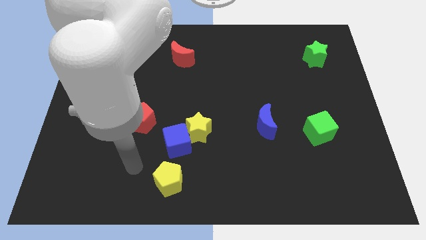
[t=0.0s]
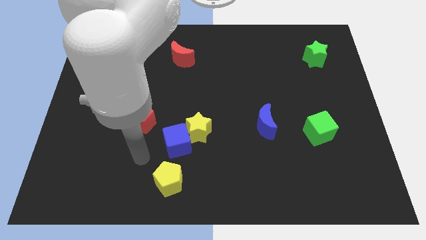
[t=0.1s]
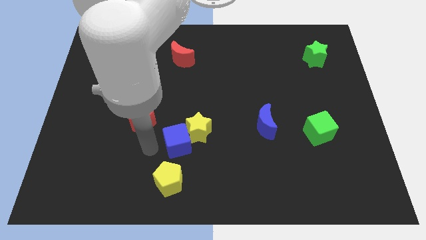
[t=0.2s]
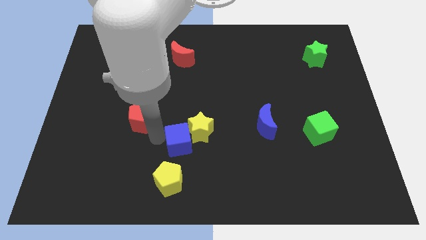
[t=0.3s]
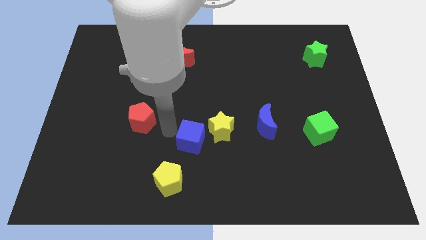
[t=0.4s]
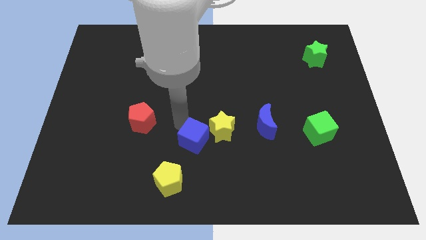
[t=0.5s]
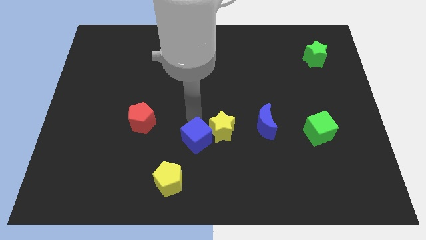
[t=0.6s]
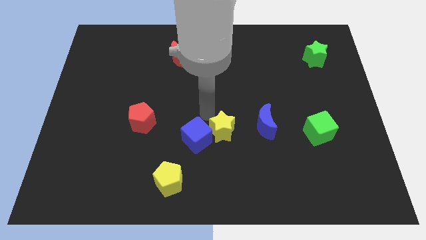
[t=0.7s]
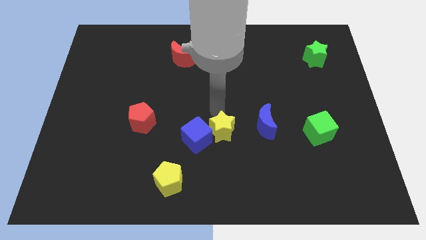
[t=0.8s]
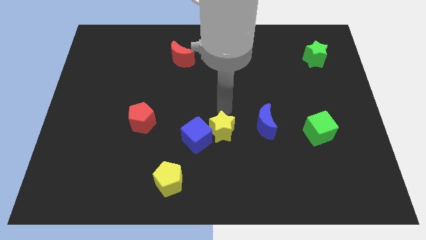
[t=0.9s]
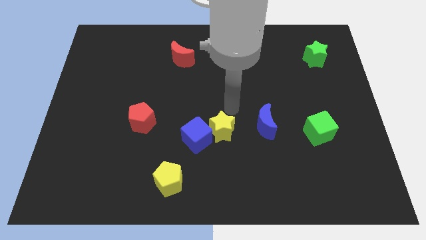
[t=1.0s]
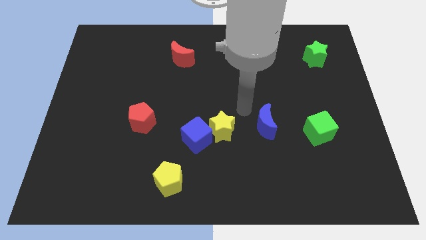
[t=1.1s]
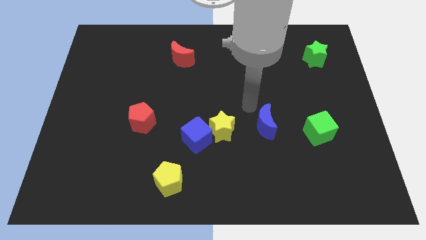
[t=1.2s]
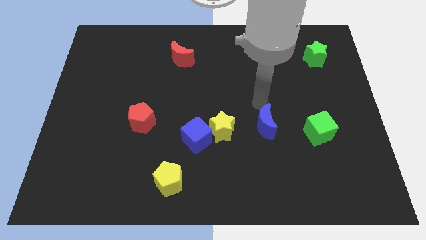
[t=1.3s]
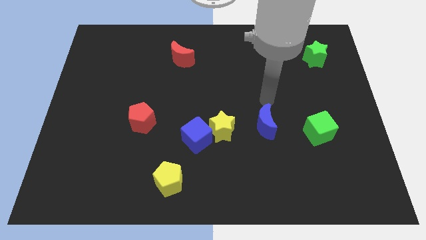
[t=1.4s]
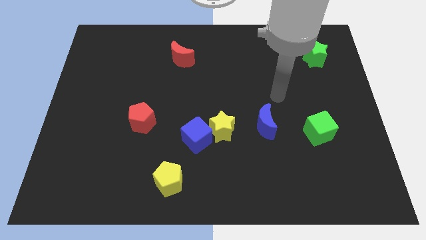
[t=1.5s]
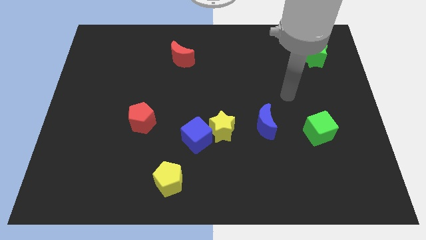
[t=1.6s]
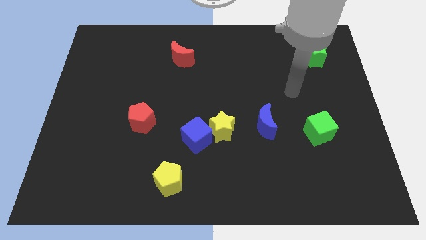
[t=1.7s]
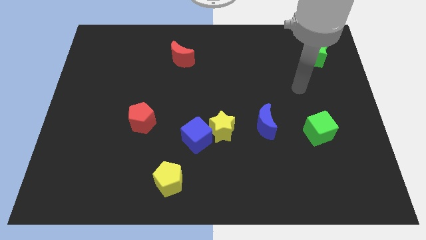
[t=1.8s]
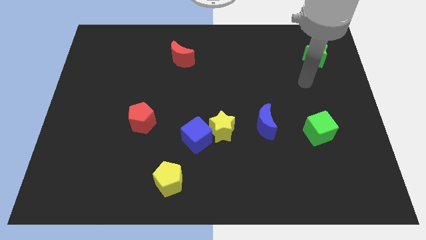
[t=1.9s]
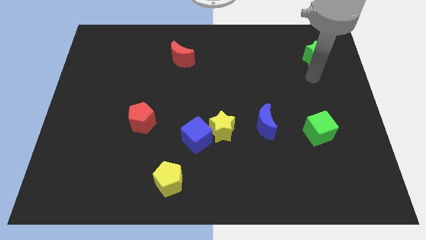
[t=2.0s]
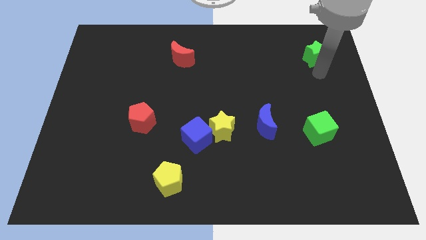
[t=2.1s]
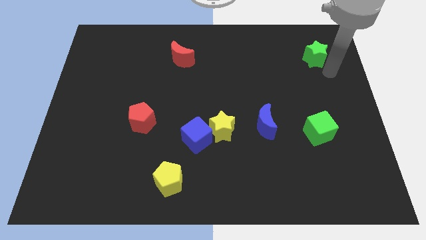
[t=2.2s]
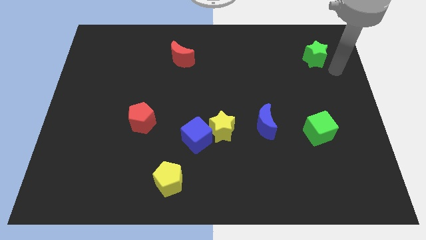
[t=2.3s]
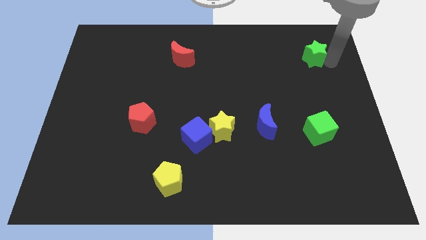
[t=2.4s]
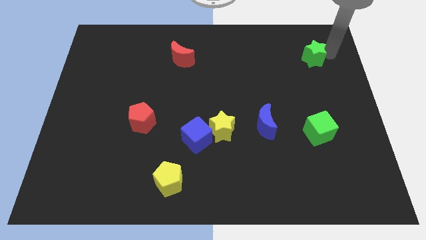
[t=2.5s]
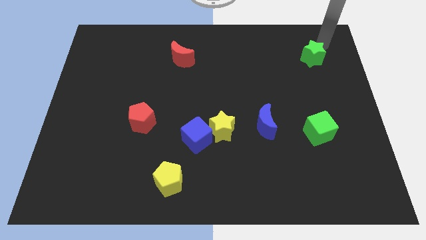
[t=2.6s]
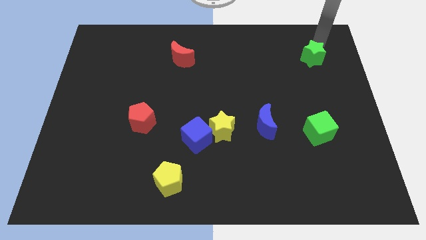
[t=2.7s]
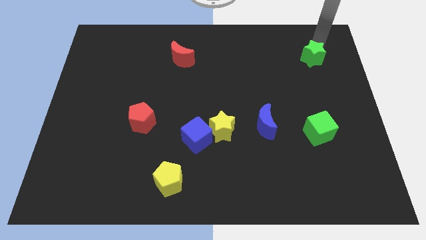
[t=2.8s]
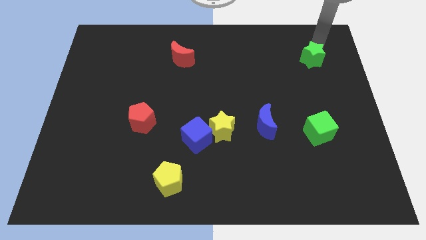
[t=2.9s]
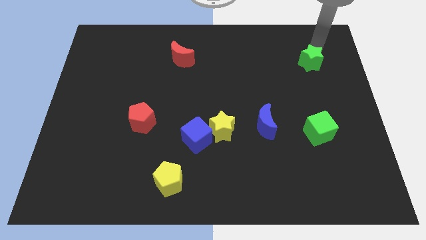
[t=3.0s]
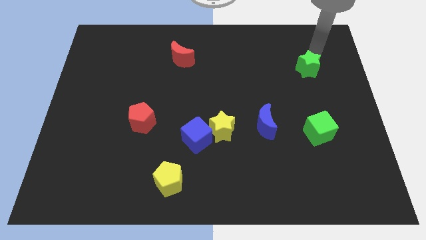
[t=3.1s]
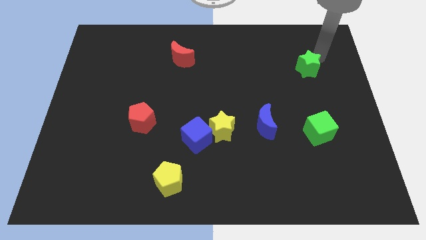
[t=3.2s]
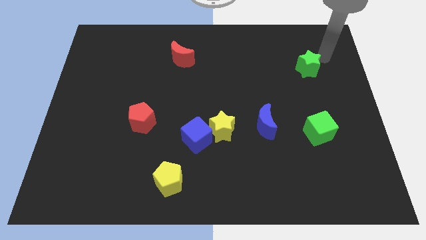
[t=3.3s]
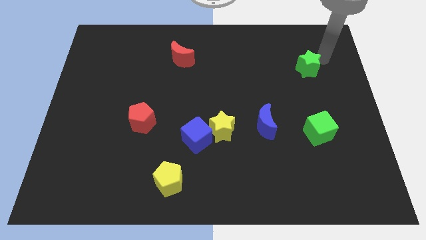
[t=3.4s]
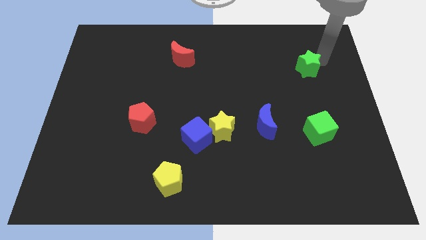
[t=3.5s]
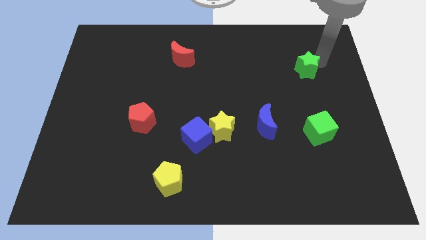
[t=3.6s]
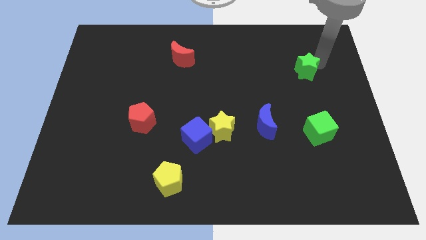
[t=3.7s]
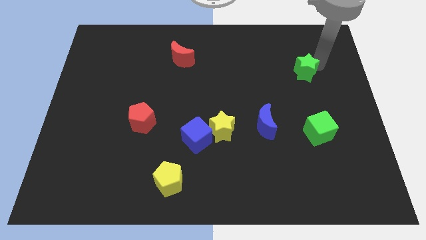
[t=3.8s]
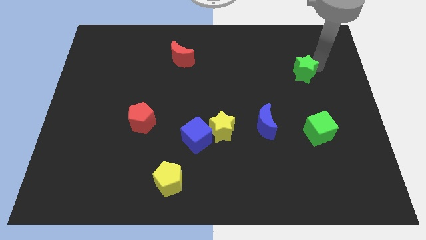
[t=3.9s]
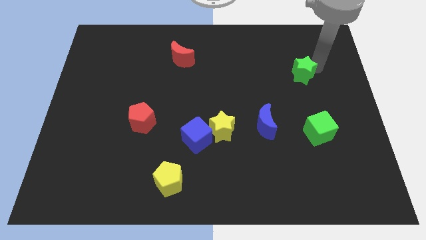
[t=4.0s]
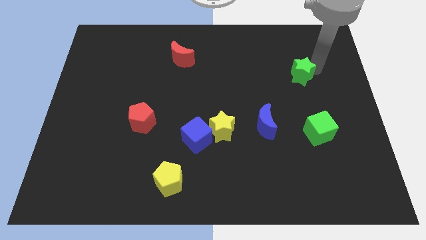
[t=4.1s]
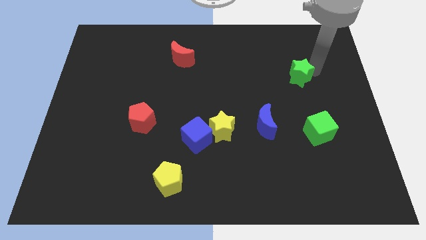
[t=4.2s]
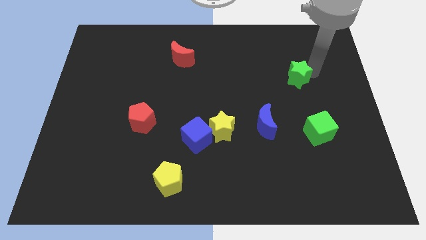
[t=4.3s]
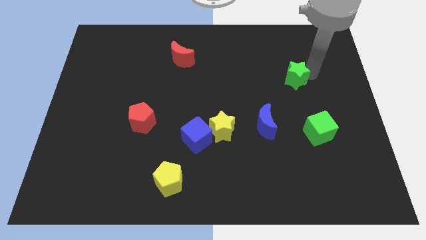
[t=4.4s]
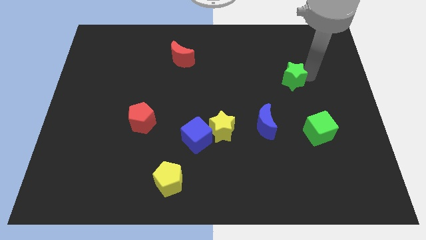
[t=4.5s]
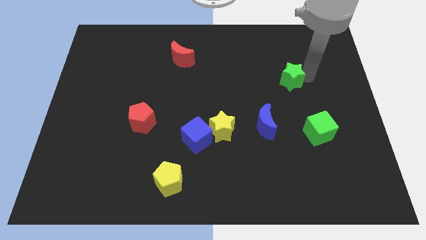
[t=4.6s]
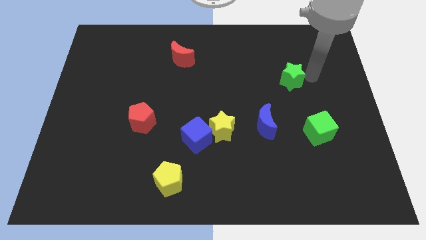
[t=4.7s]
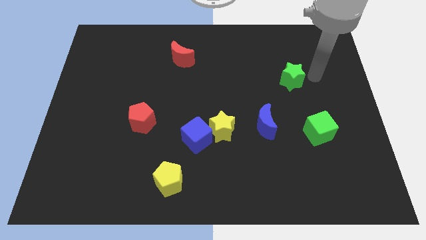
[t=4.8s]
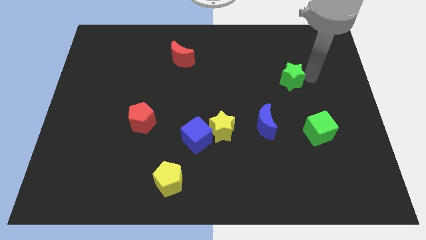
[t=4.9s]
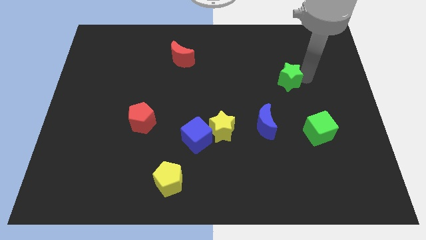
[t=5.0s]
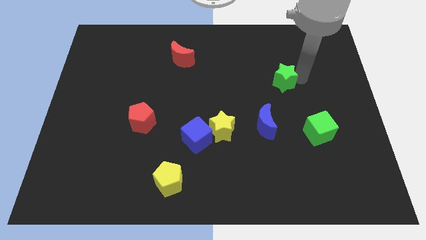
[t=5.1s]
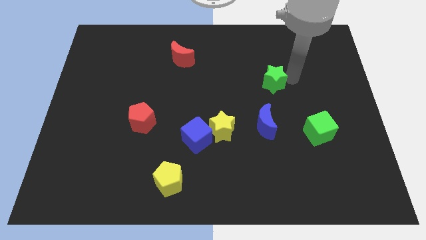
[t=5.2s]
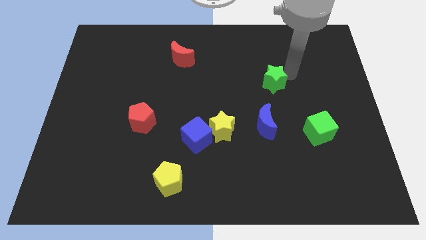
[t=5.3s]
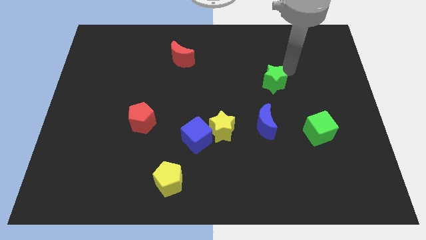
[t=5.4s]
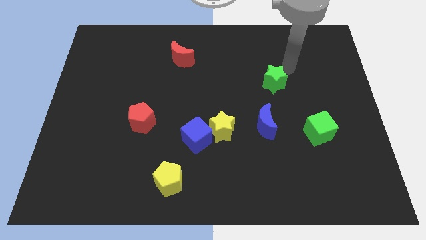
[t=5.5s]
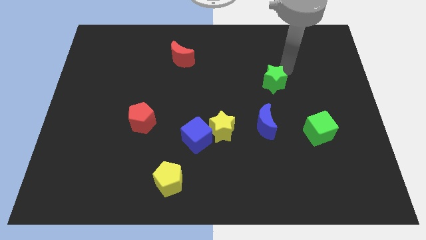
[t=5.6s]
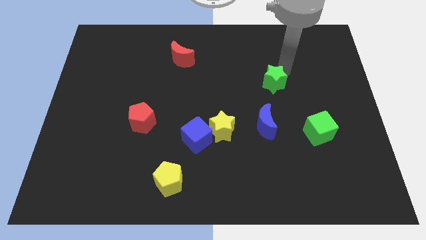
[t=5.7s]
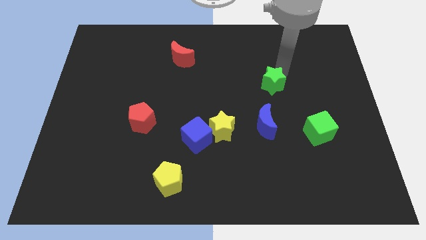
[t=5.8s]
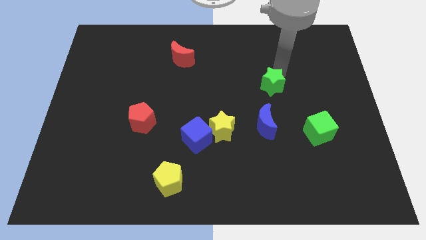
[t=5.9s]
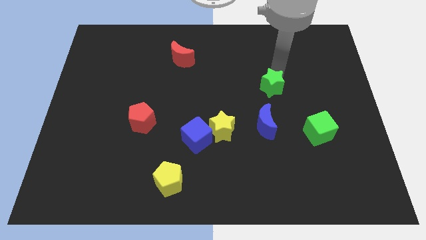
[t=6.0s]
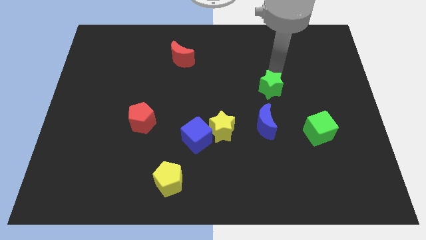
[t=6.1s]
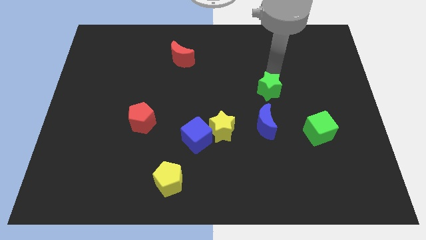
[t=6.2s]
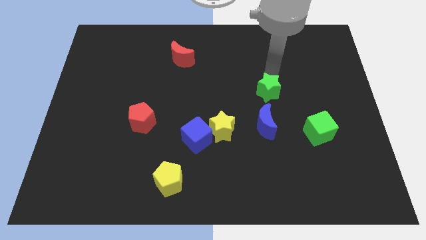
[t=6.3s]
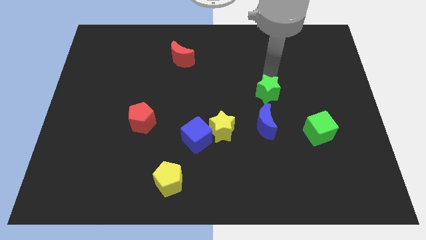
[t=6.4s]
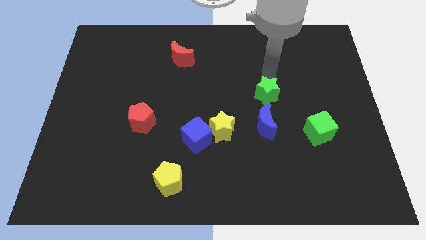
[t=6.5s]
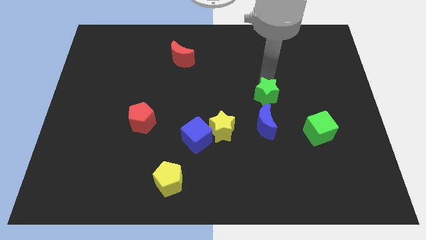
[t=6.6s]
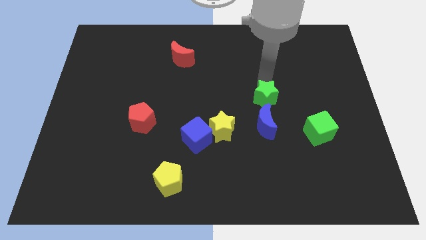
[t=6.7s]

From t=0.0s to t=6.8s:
move the green star diagonally down and left

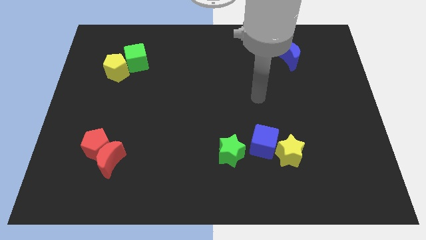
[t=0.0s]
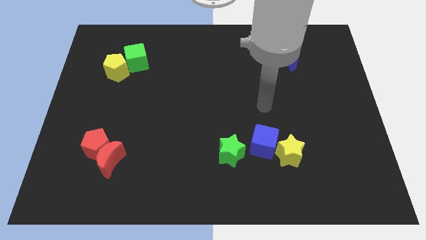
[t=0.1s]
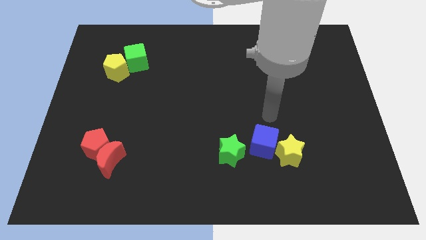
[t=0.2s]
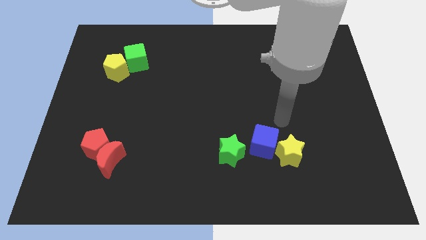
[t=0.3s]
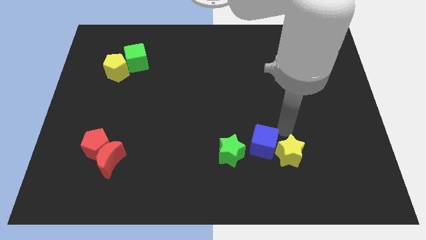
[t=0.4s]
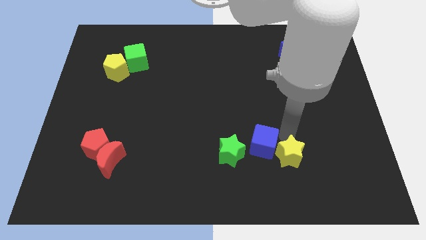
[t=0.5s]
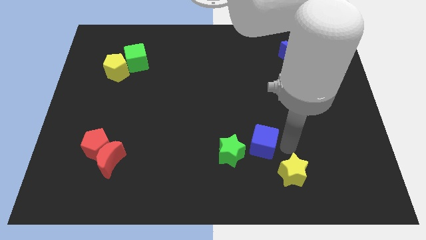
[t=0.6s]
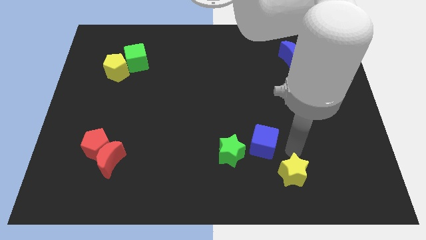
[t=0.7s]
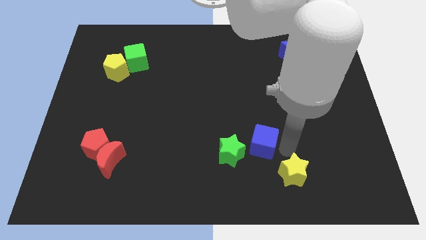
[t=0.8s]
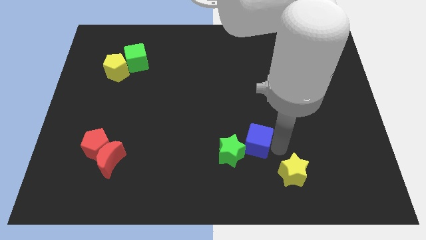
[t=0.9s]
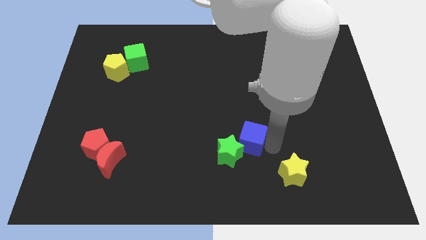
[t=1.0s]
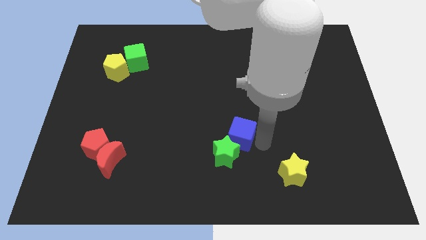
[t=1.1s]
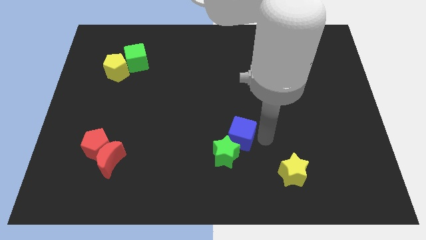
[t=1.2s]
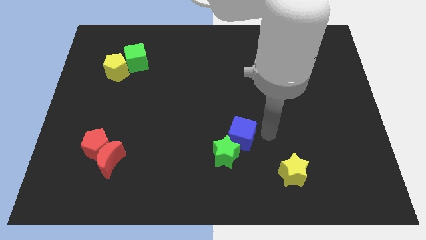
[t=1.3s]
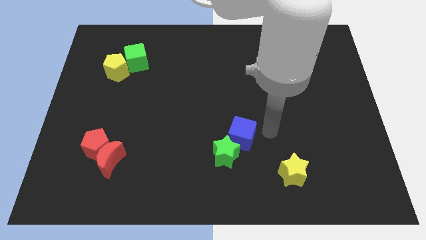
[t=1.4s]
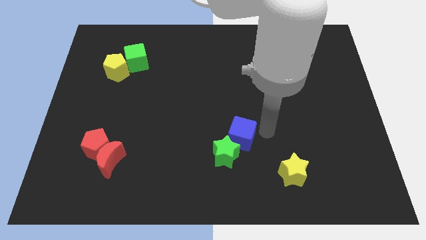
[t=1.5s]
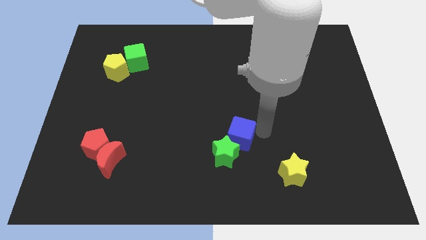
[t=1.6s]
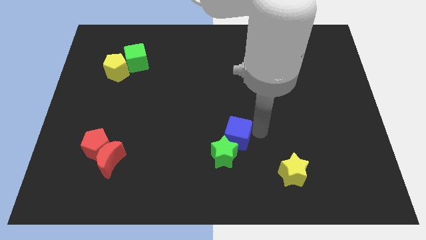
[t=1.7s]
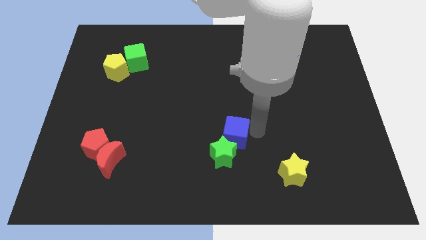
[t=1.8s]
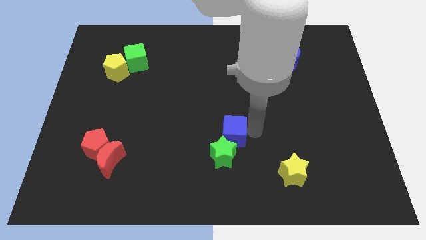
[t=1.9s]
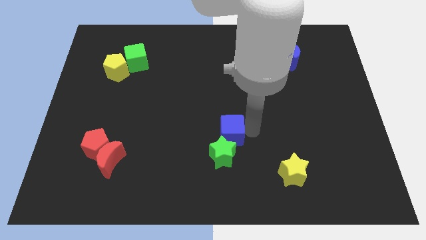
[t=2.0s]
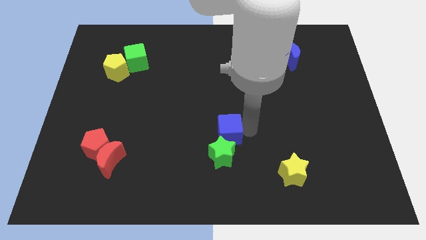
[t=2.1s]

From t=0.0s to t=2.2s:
slightly slide the blue cube left
